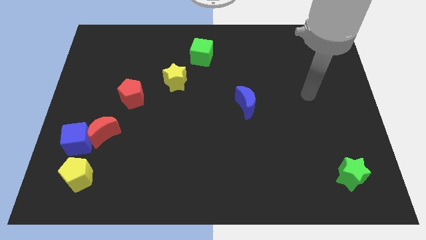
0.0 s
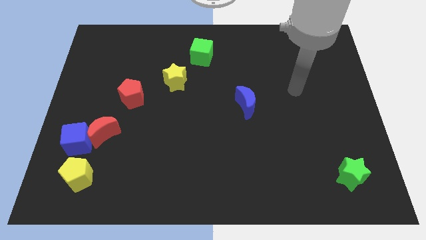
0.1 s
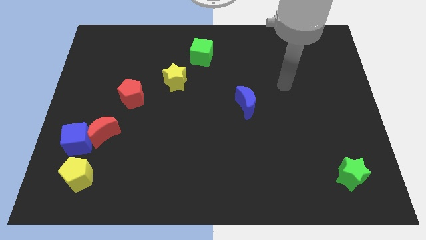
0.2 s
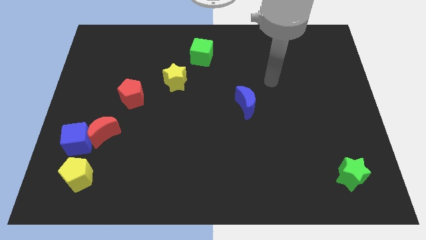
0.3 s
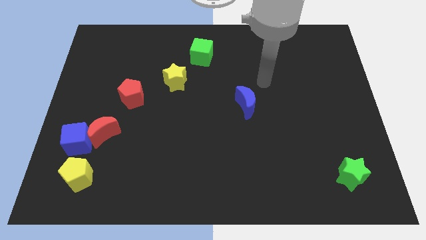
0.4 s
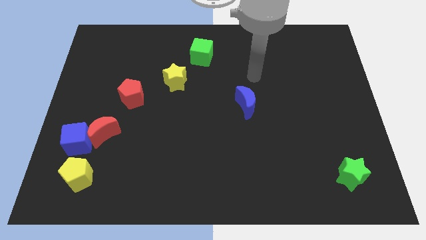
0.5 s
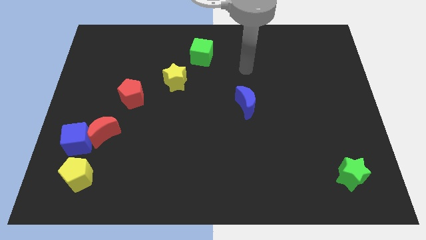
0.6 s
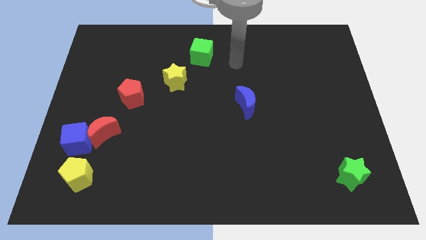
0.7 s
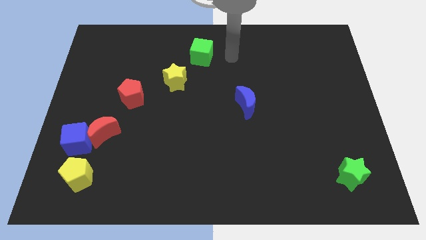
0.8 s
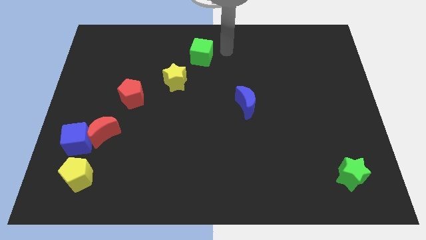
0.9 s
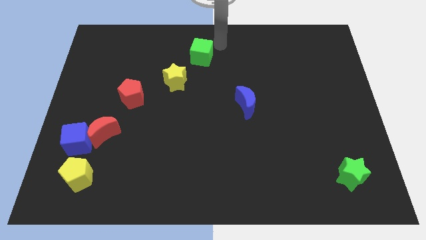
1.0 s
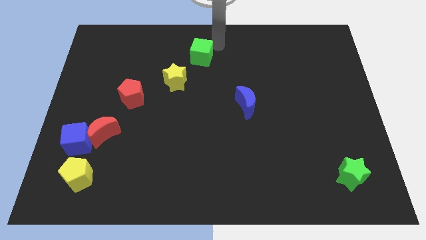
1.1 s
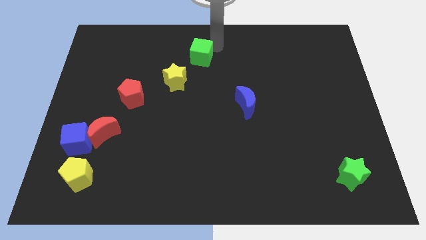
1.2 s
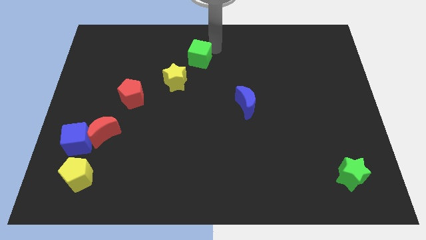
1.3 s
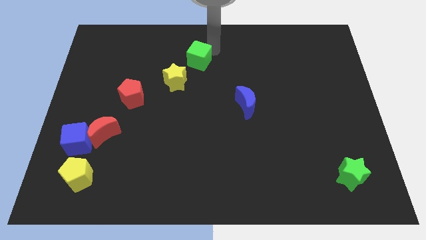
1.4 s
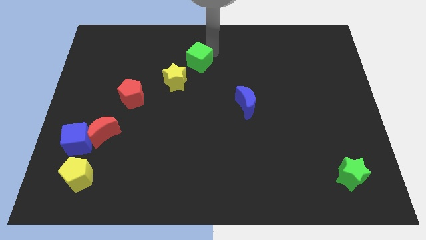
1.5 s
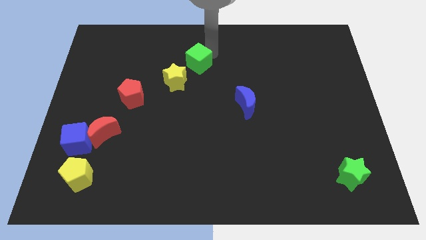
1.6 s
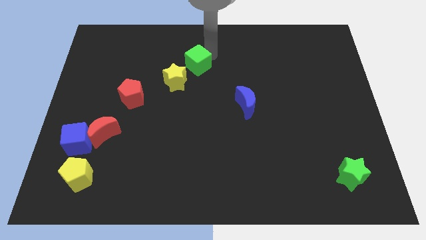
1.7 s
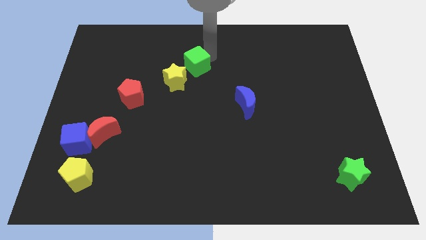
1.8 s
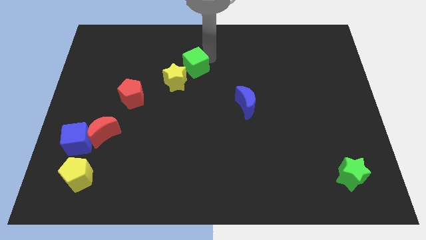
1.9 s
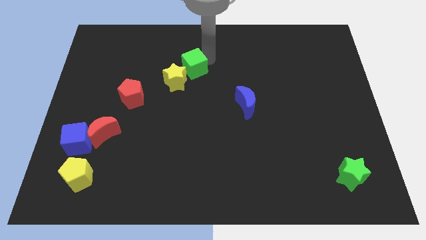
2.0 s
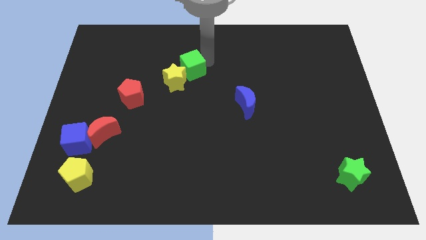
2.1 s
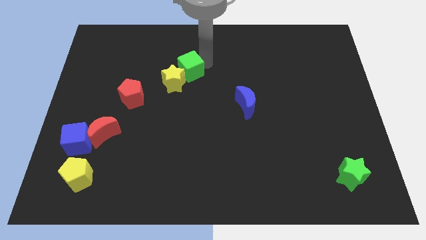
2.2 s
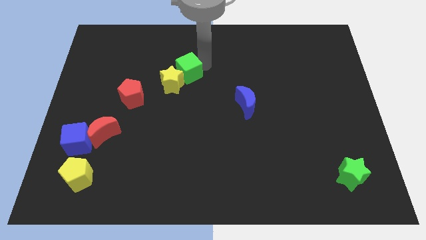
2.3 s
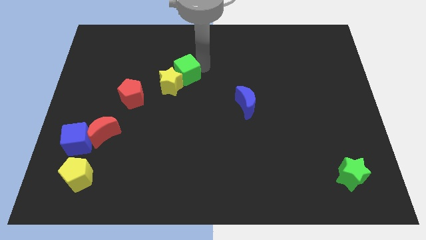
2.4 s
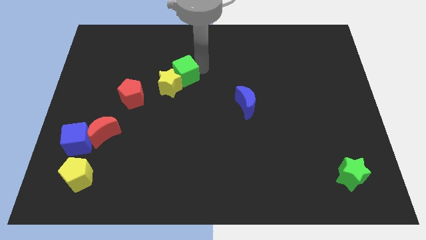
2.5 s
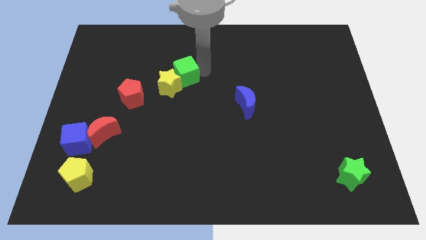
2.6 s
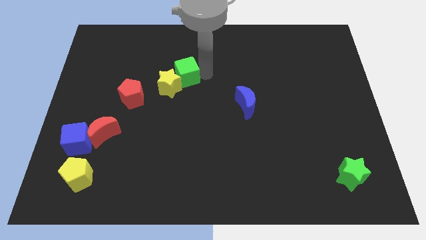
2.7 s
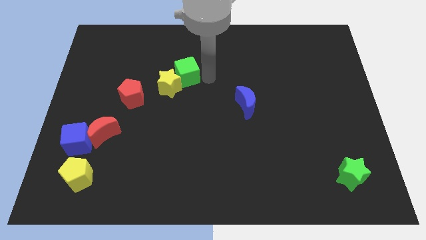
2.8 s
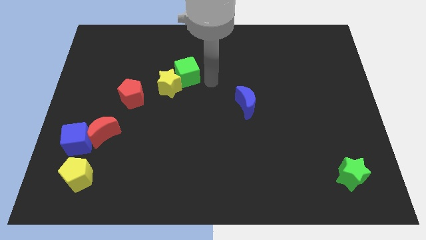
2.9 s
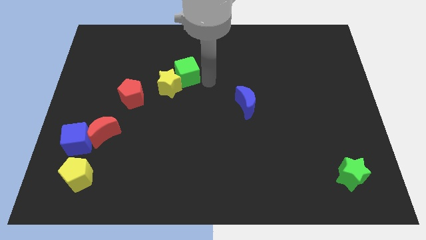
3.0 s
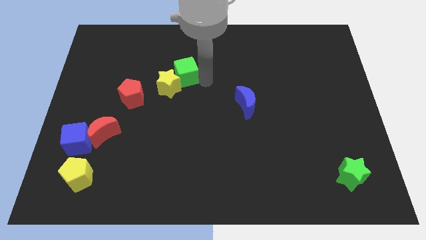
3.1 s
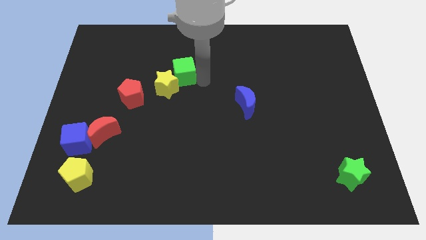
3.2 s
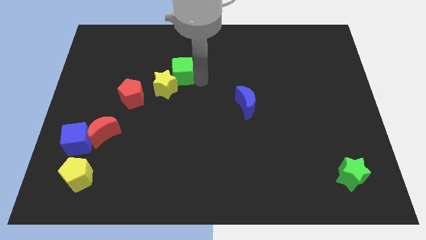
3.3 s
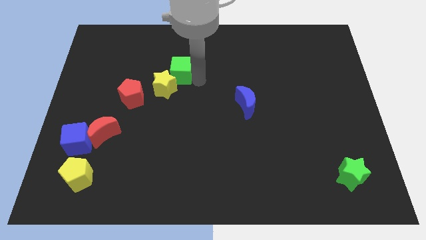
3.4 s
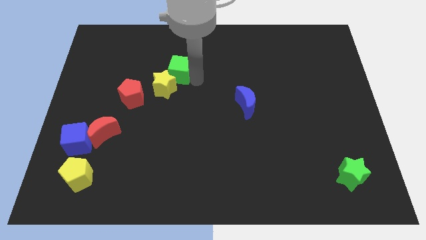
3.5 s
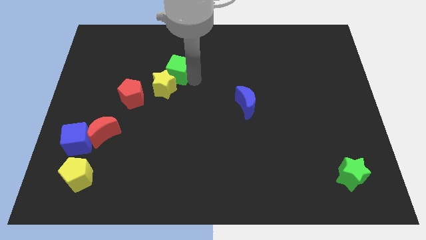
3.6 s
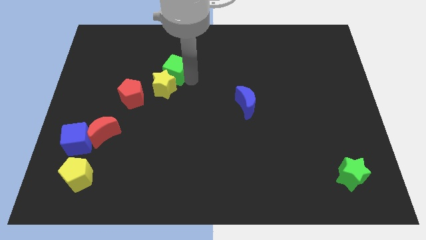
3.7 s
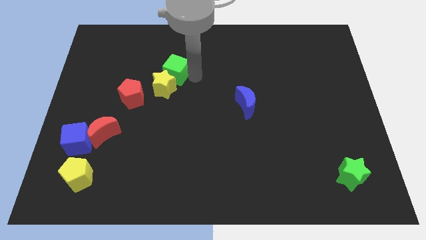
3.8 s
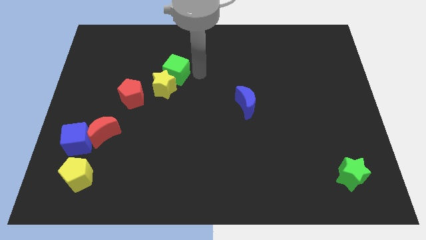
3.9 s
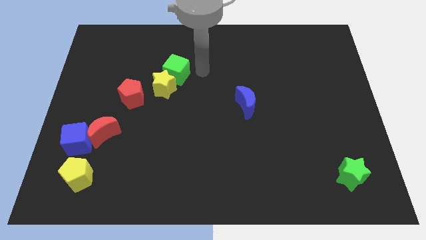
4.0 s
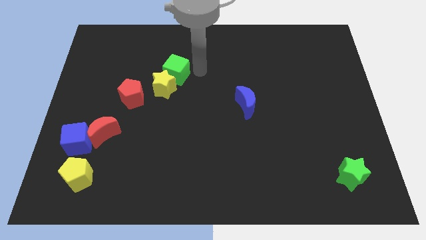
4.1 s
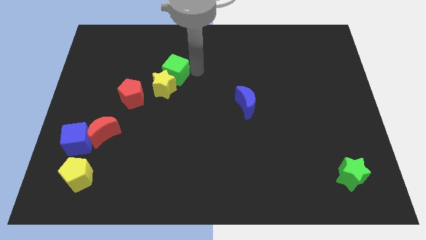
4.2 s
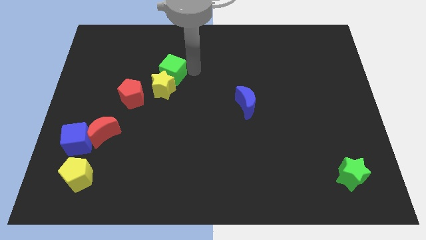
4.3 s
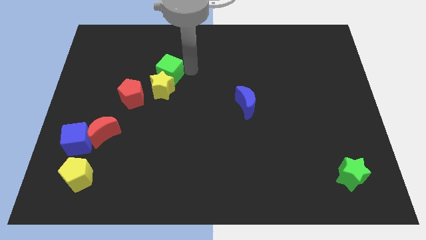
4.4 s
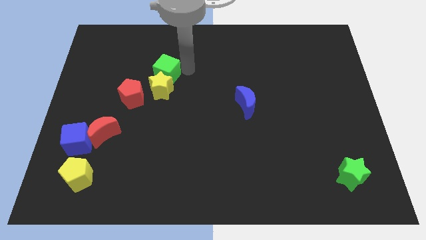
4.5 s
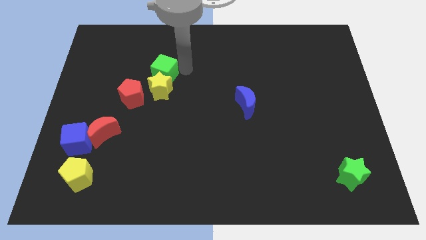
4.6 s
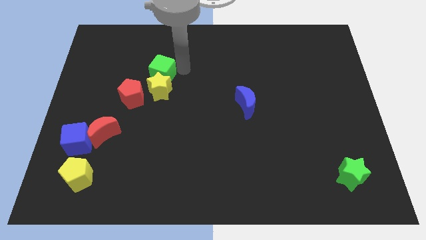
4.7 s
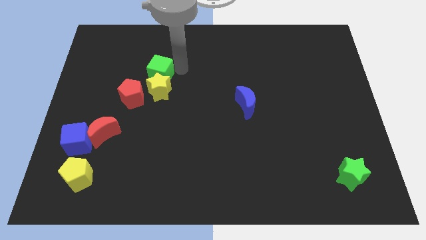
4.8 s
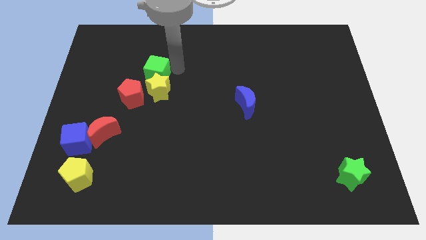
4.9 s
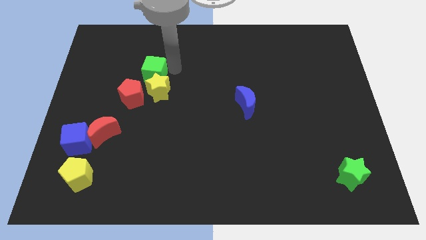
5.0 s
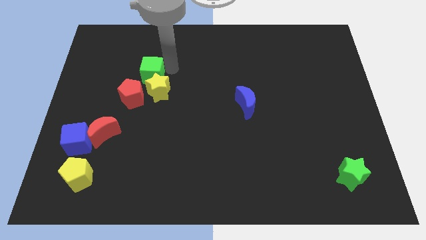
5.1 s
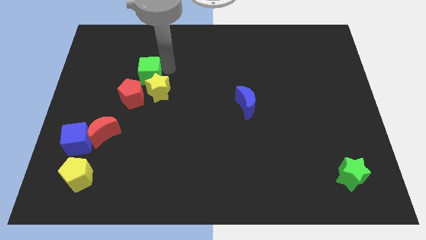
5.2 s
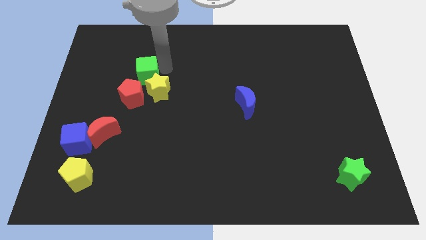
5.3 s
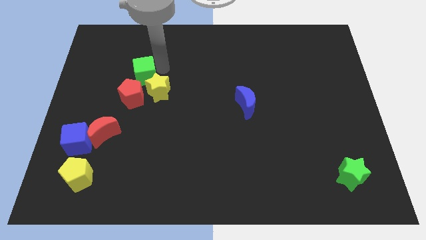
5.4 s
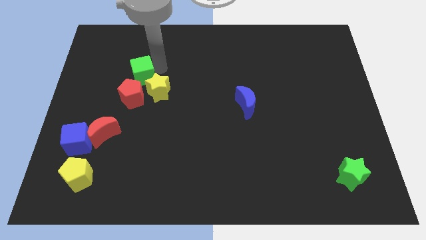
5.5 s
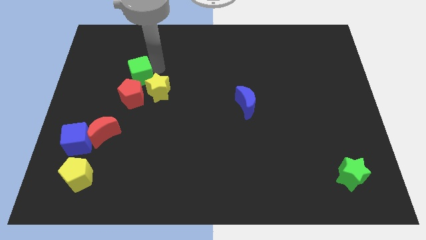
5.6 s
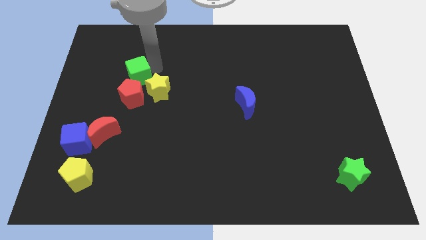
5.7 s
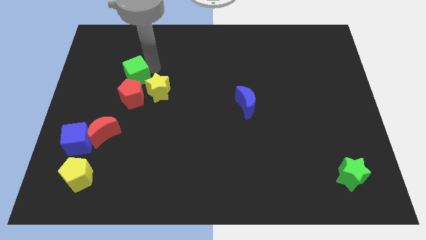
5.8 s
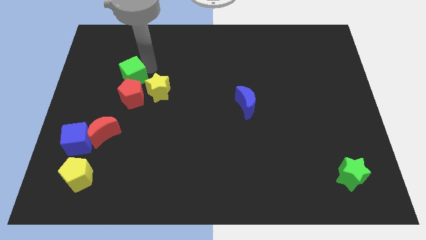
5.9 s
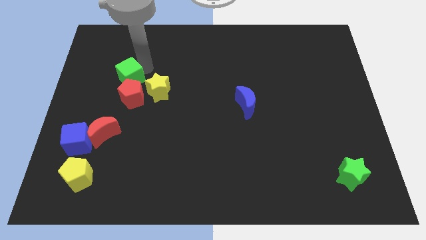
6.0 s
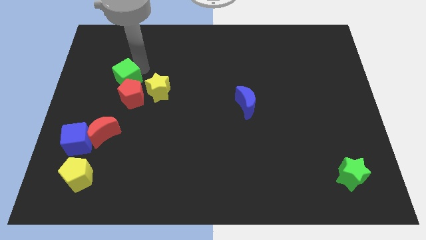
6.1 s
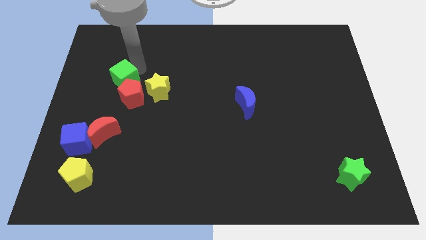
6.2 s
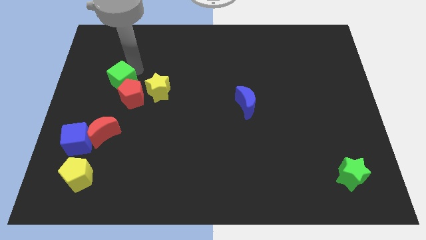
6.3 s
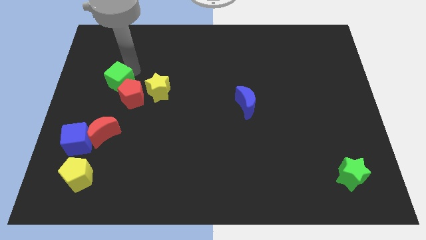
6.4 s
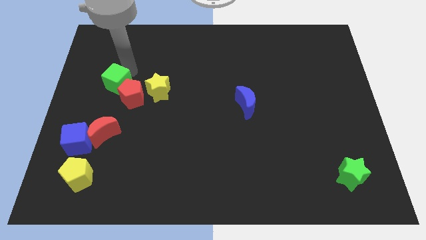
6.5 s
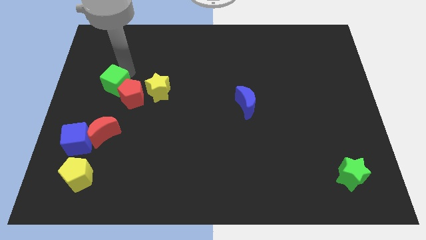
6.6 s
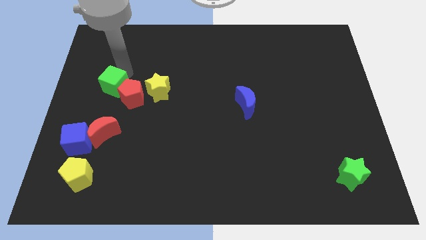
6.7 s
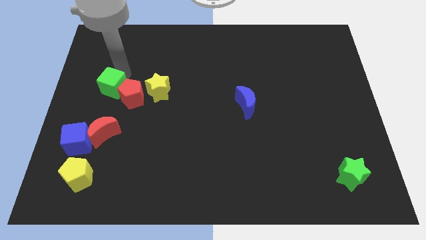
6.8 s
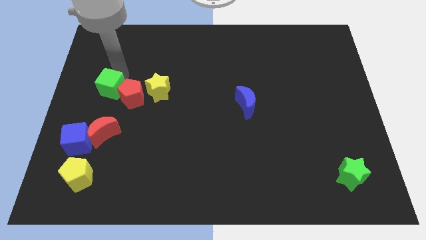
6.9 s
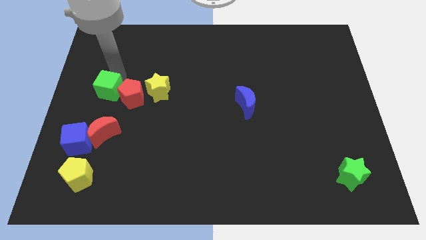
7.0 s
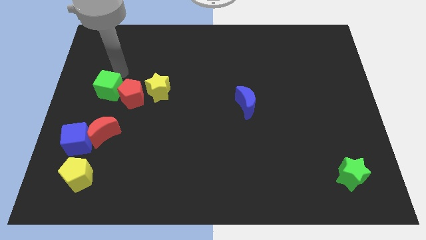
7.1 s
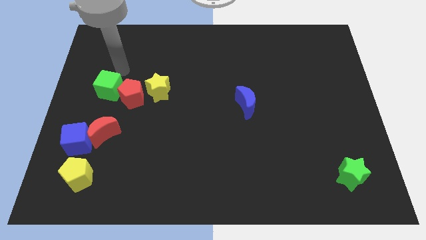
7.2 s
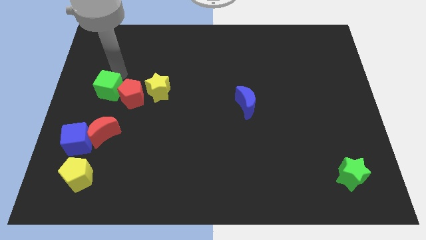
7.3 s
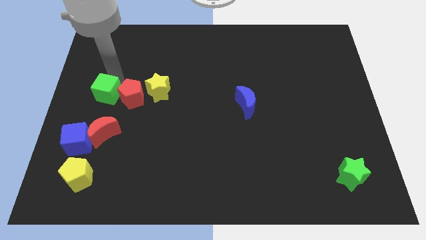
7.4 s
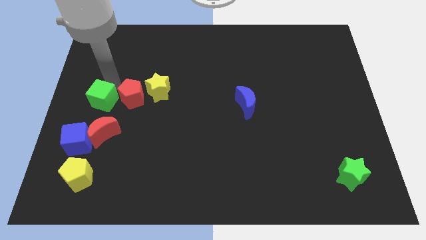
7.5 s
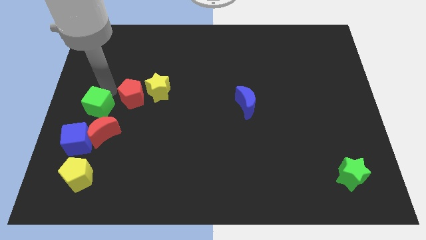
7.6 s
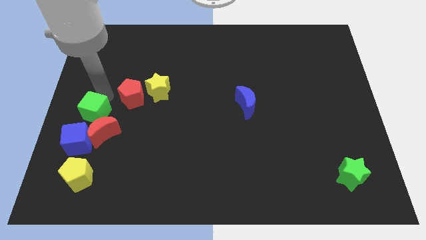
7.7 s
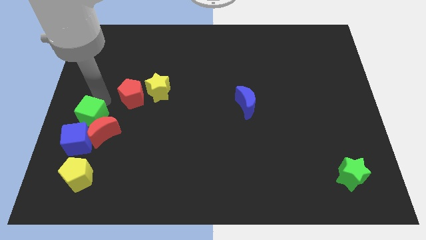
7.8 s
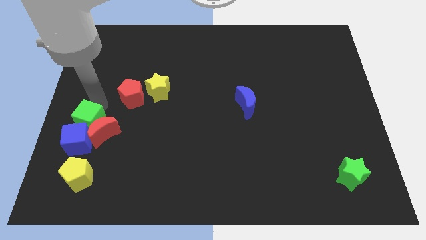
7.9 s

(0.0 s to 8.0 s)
put the green cube to the blue cube

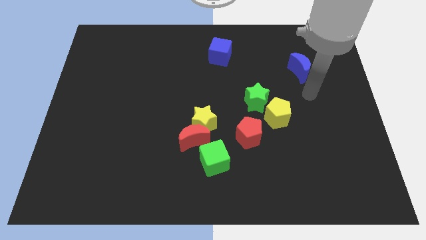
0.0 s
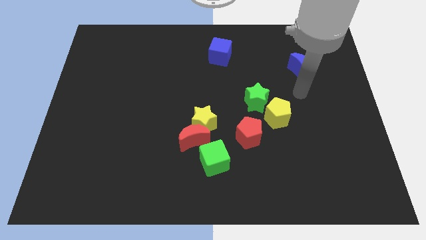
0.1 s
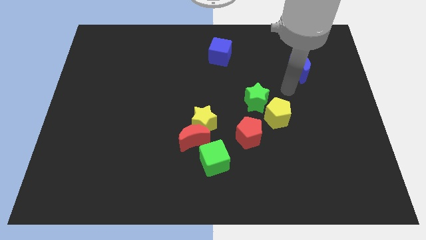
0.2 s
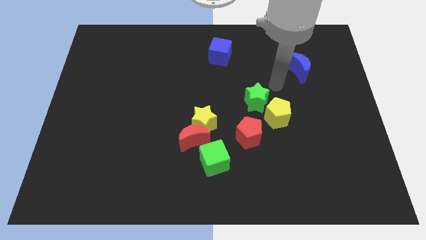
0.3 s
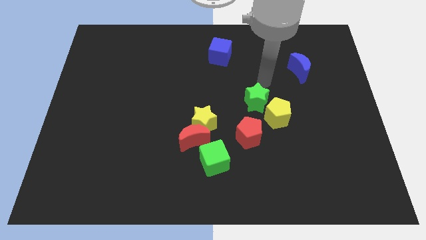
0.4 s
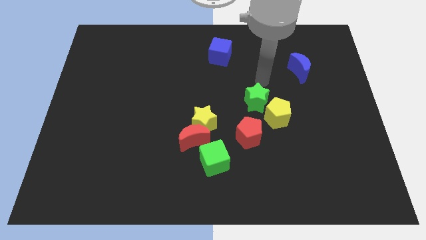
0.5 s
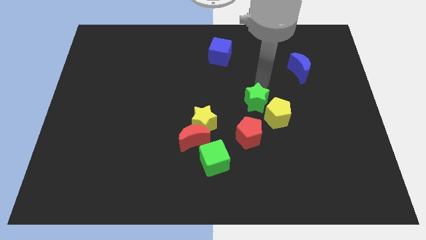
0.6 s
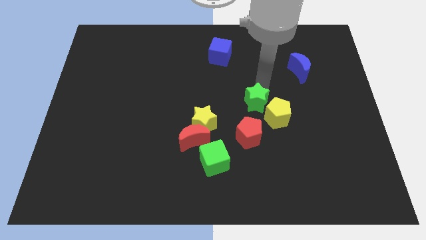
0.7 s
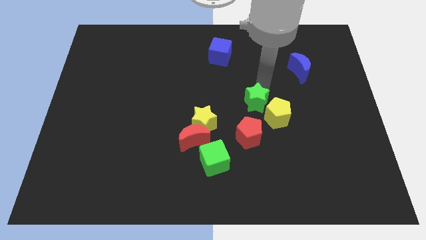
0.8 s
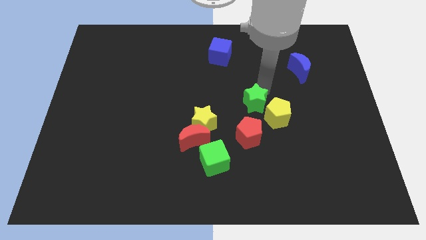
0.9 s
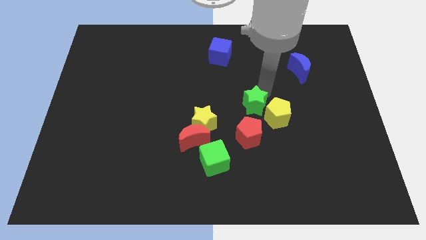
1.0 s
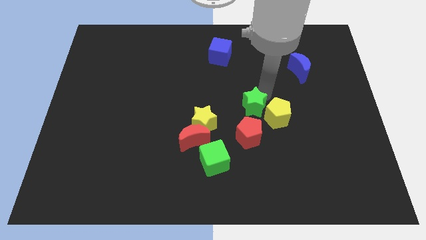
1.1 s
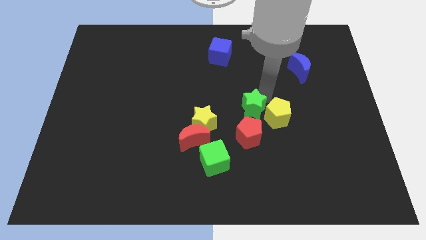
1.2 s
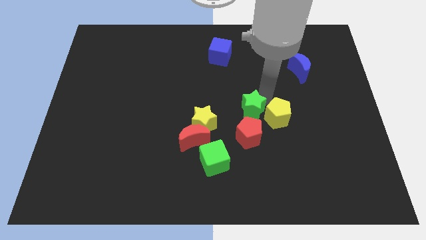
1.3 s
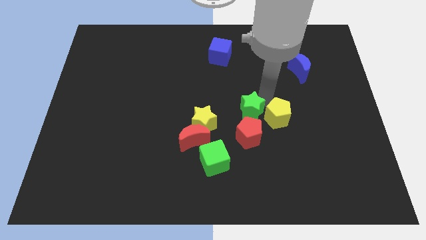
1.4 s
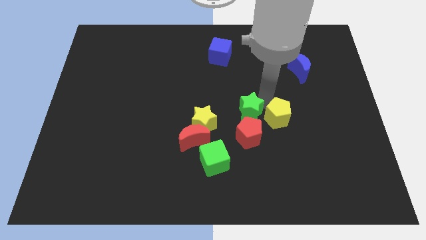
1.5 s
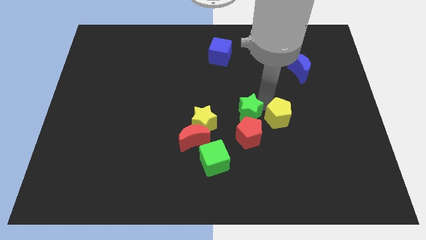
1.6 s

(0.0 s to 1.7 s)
put the green star next to the red pentagon
